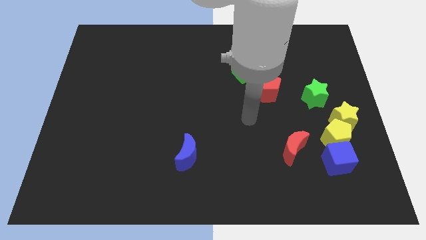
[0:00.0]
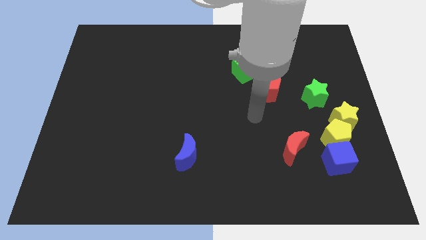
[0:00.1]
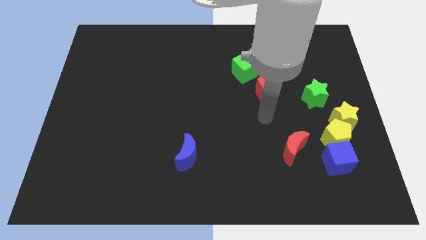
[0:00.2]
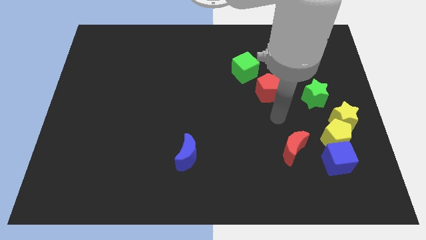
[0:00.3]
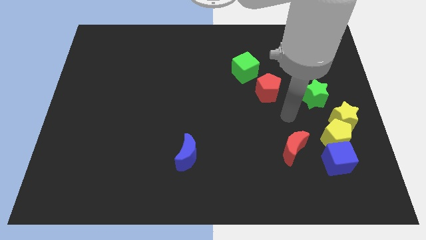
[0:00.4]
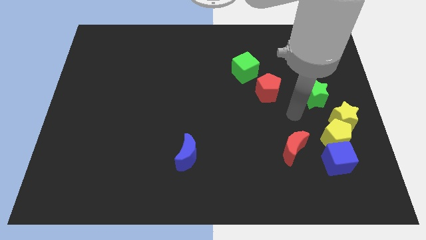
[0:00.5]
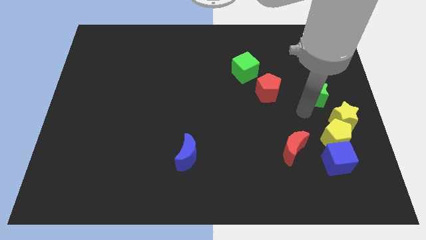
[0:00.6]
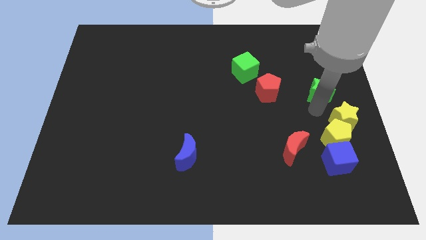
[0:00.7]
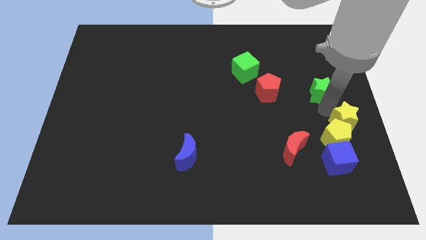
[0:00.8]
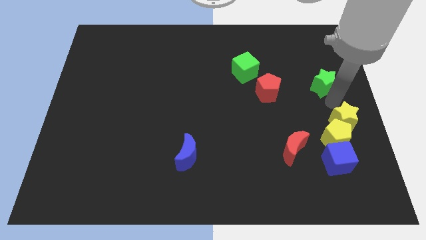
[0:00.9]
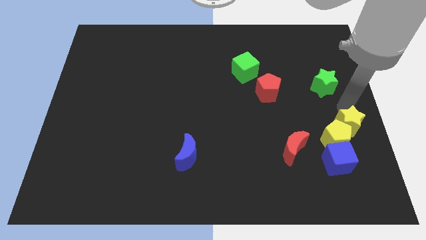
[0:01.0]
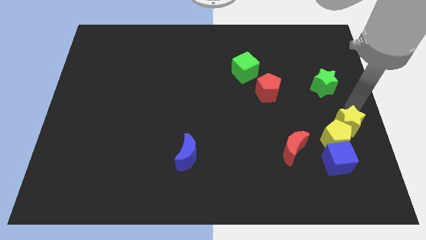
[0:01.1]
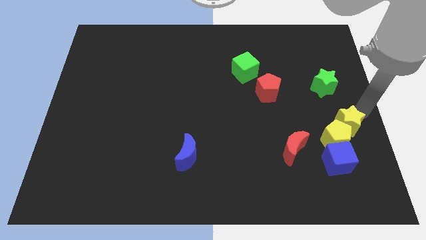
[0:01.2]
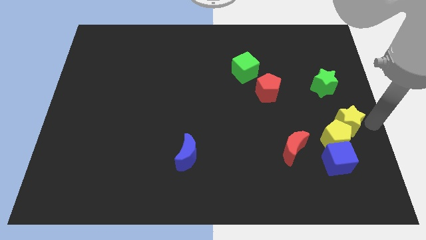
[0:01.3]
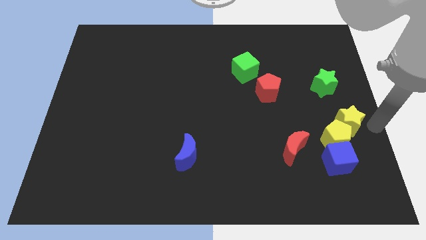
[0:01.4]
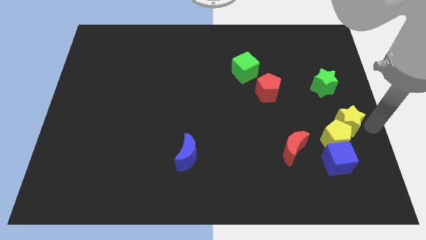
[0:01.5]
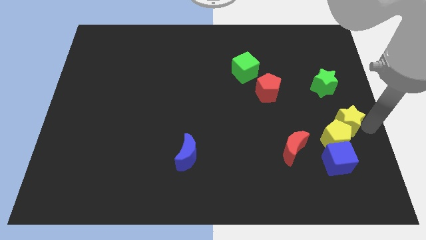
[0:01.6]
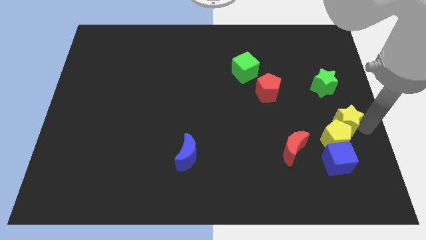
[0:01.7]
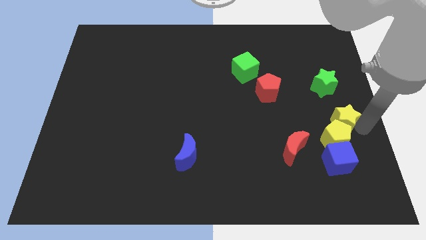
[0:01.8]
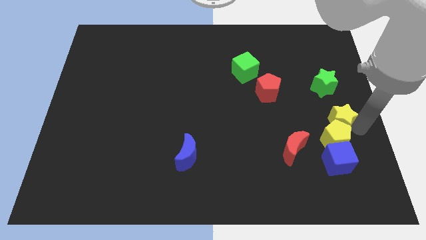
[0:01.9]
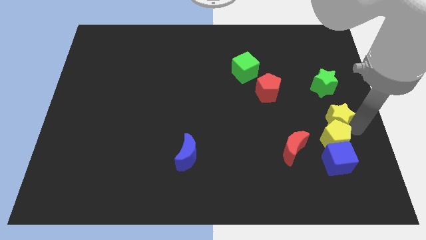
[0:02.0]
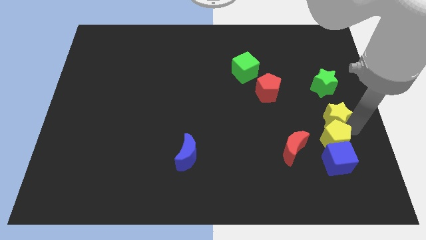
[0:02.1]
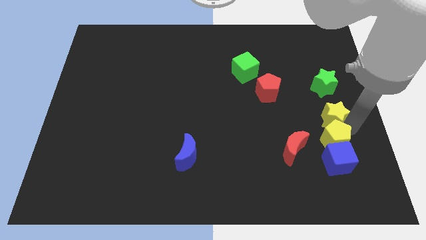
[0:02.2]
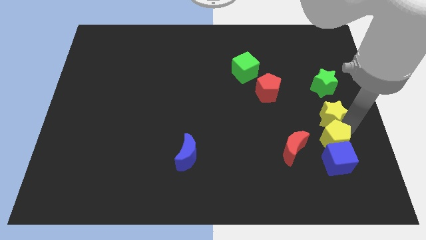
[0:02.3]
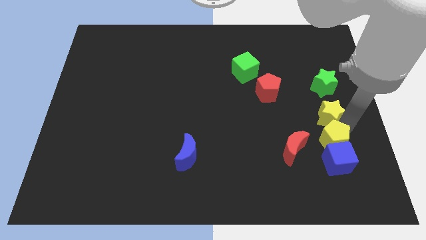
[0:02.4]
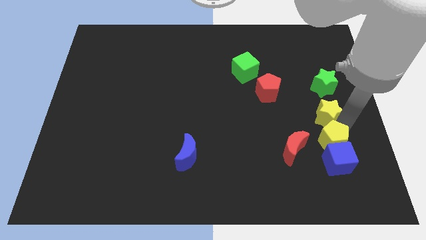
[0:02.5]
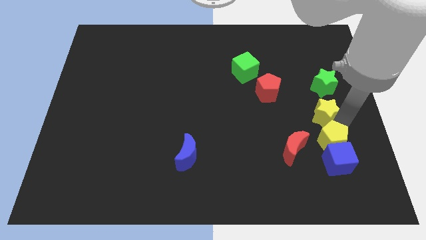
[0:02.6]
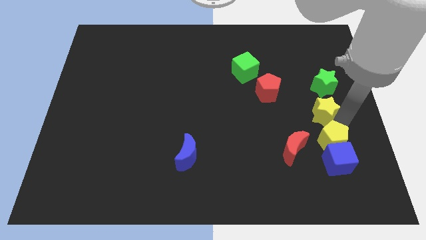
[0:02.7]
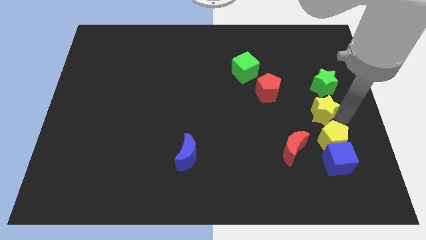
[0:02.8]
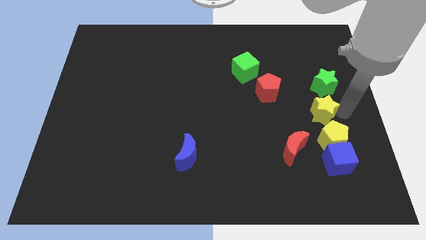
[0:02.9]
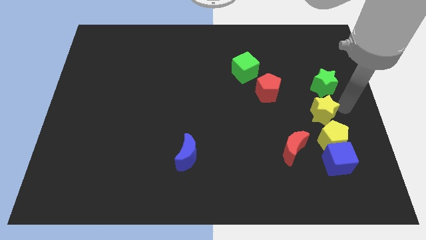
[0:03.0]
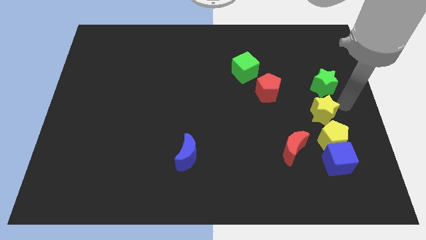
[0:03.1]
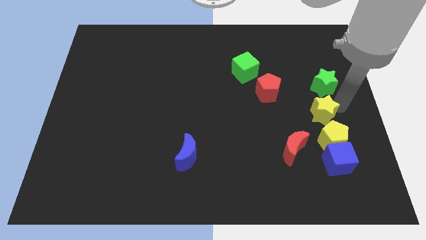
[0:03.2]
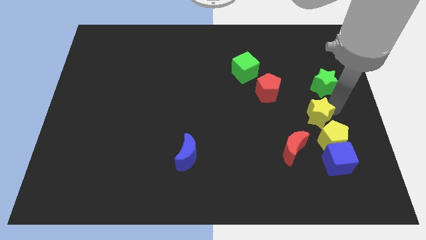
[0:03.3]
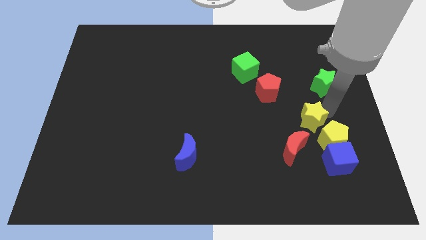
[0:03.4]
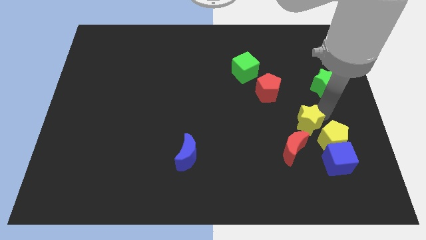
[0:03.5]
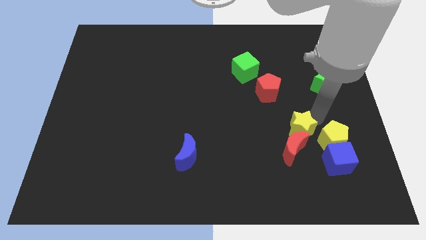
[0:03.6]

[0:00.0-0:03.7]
move the yellow star a little downwards and left

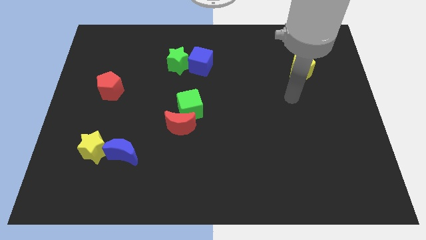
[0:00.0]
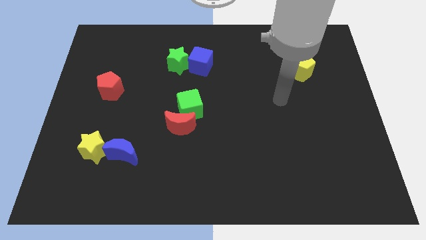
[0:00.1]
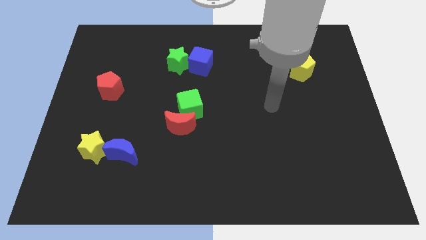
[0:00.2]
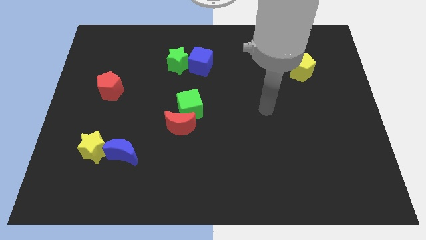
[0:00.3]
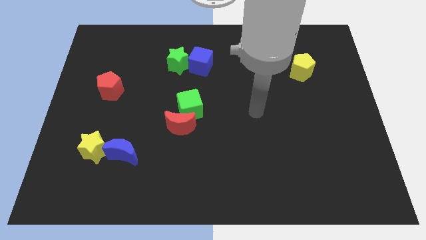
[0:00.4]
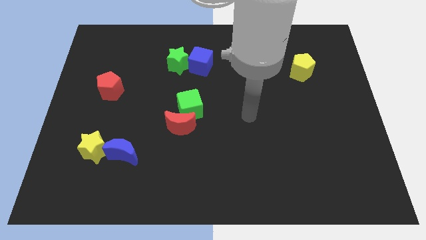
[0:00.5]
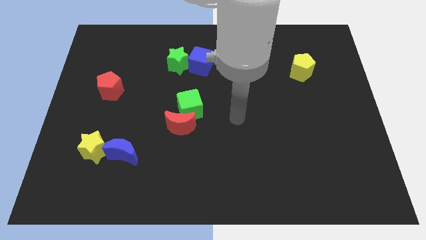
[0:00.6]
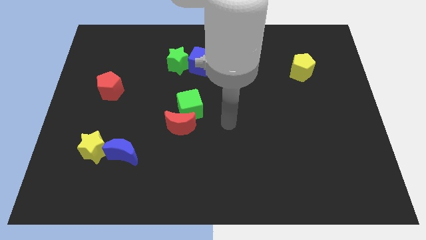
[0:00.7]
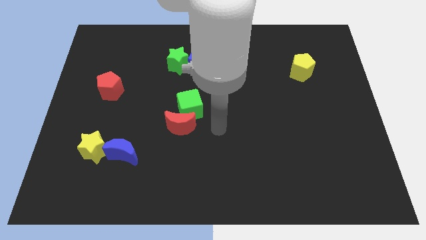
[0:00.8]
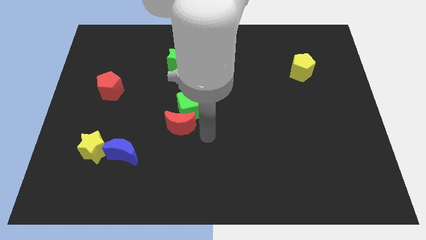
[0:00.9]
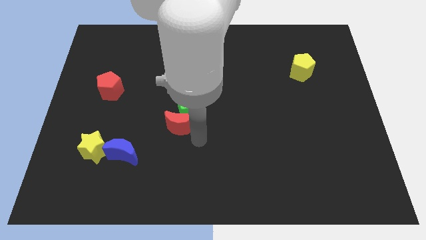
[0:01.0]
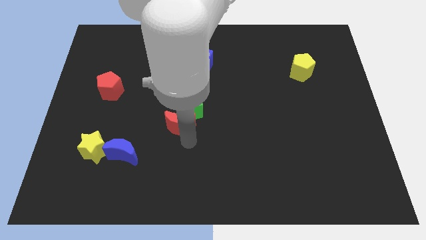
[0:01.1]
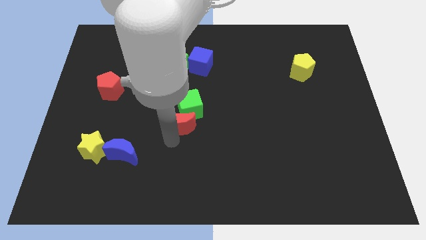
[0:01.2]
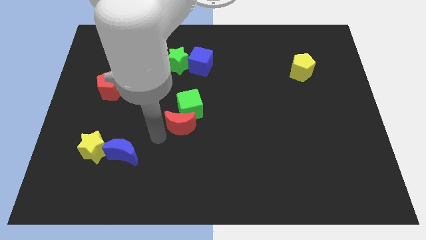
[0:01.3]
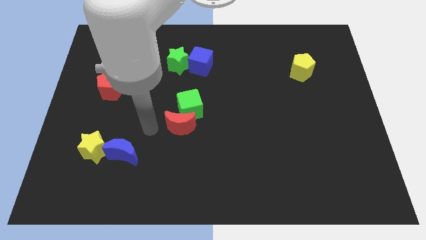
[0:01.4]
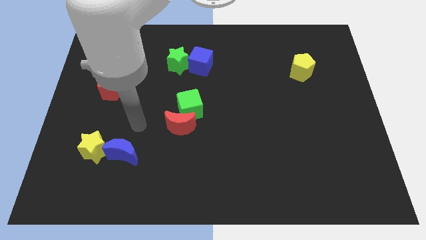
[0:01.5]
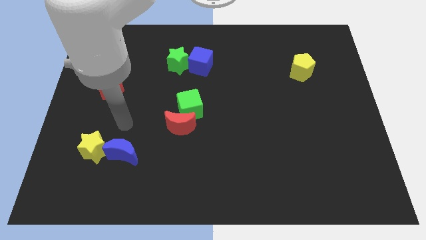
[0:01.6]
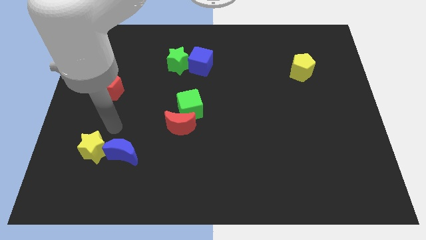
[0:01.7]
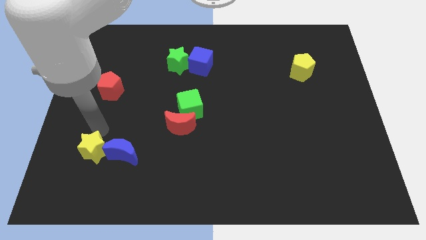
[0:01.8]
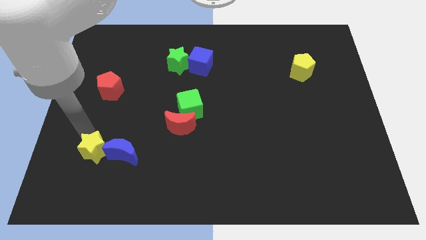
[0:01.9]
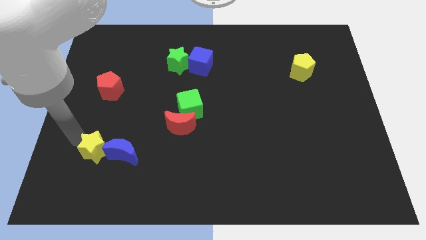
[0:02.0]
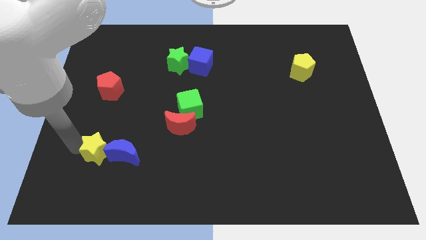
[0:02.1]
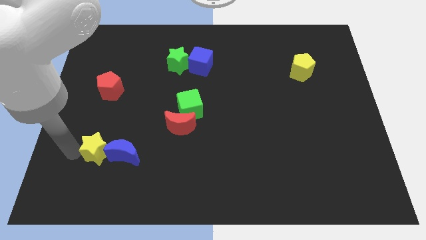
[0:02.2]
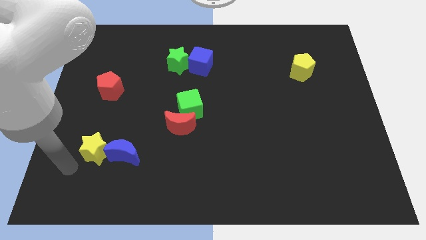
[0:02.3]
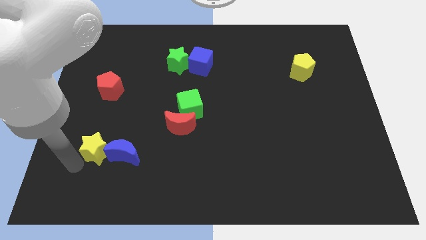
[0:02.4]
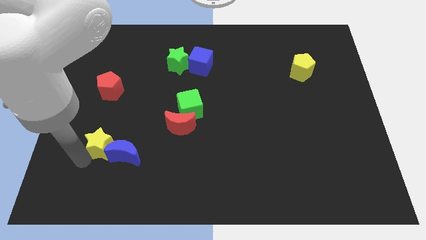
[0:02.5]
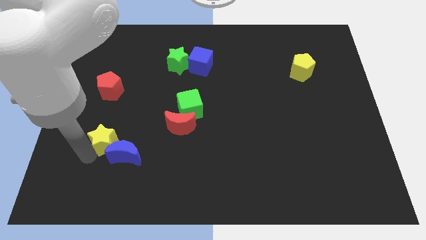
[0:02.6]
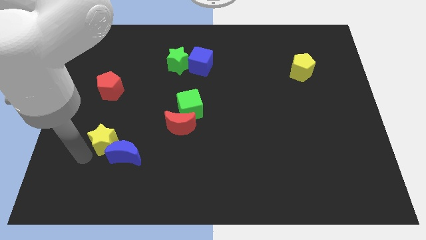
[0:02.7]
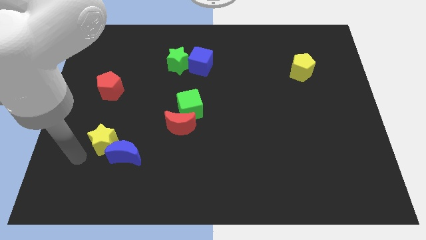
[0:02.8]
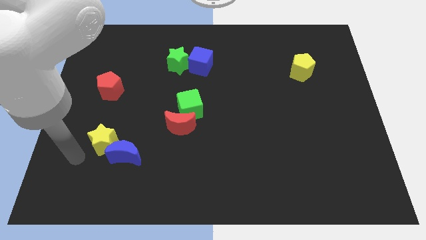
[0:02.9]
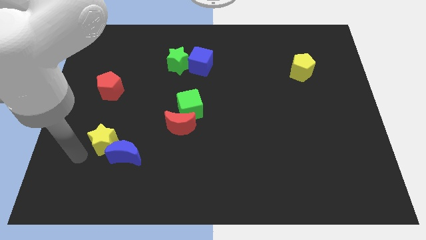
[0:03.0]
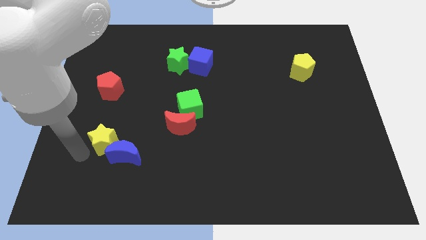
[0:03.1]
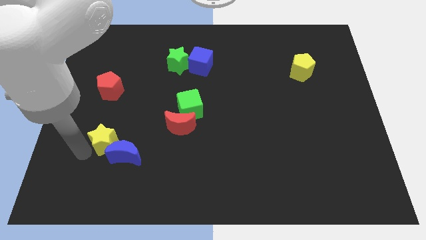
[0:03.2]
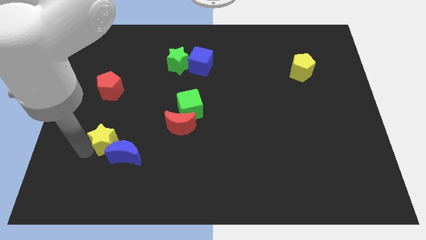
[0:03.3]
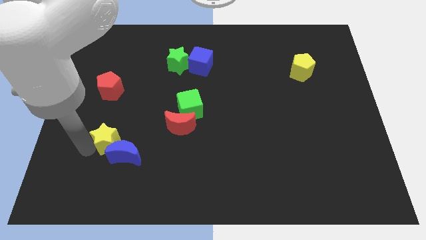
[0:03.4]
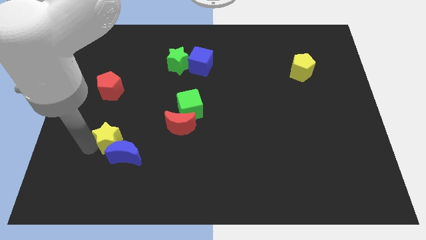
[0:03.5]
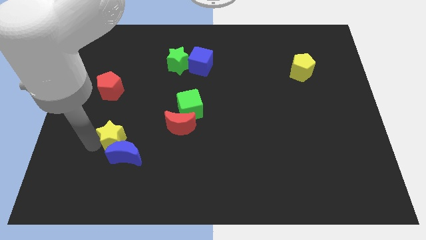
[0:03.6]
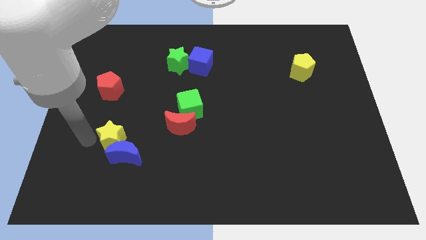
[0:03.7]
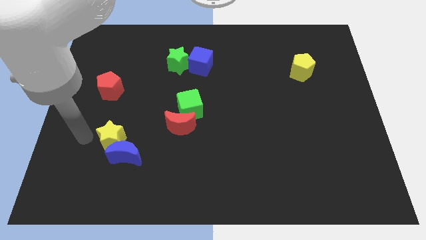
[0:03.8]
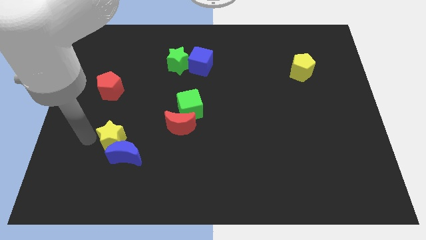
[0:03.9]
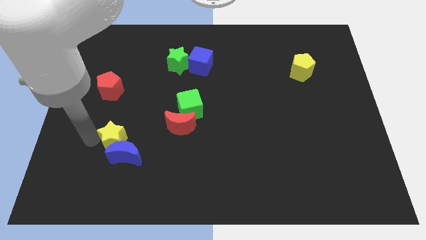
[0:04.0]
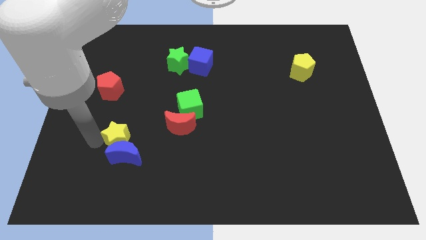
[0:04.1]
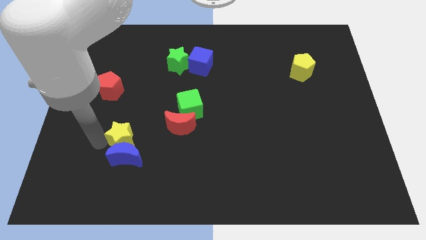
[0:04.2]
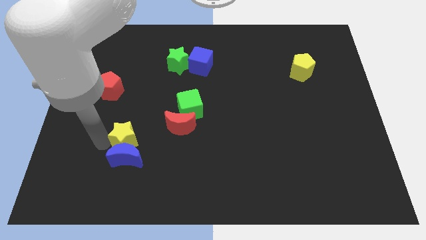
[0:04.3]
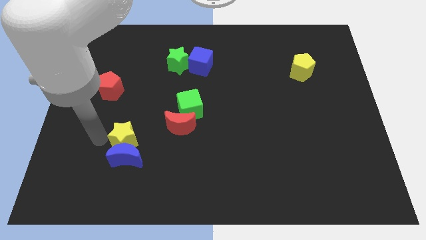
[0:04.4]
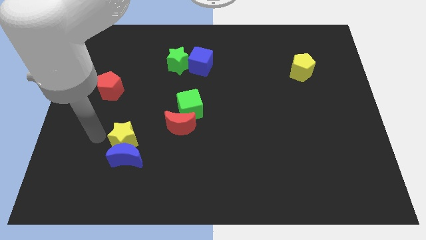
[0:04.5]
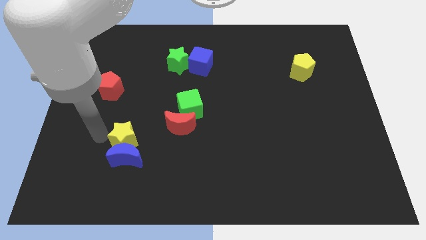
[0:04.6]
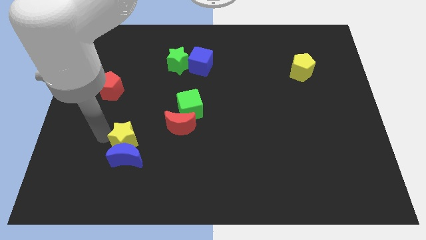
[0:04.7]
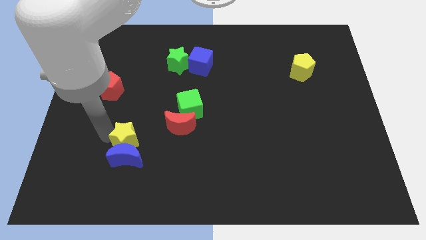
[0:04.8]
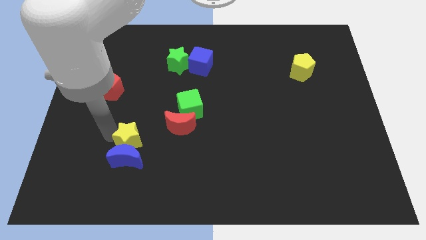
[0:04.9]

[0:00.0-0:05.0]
push the yellow star right a little
